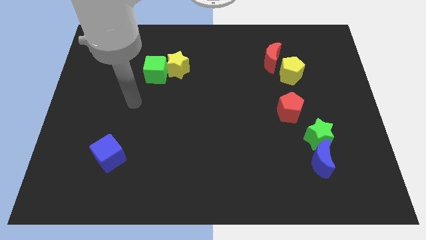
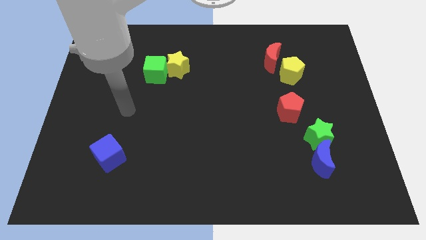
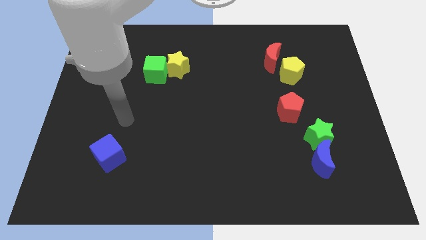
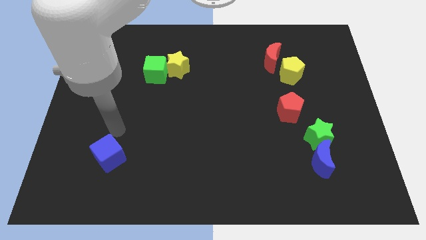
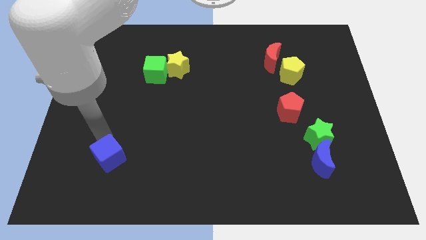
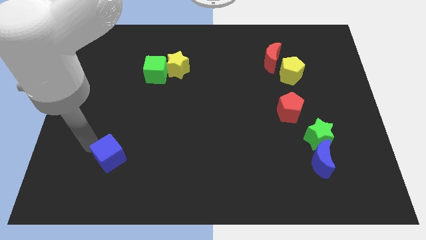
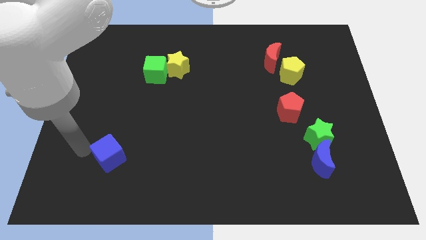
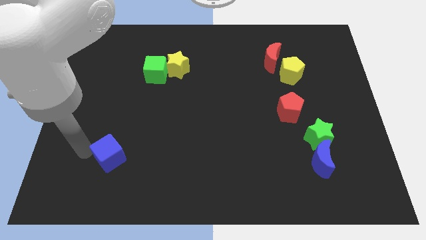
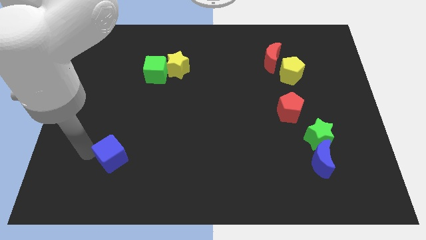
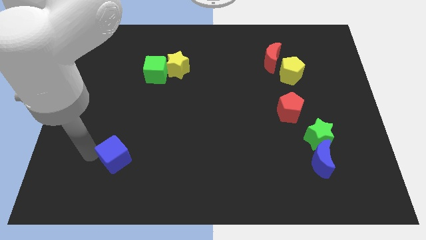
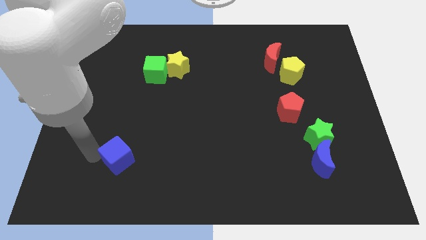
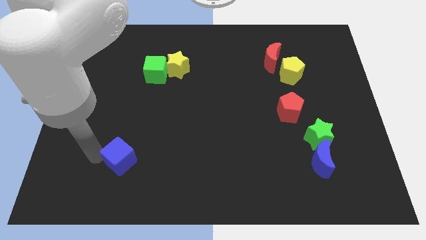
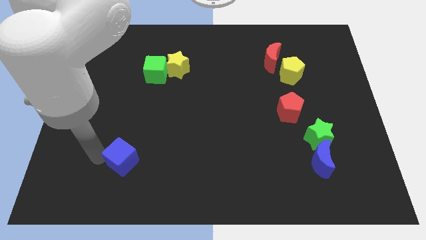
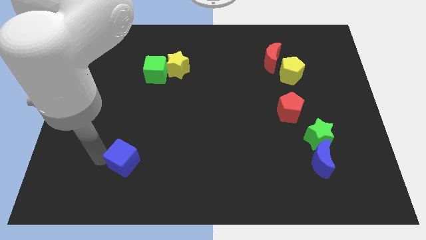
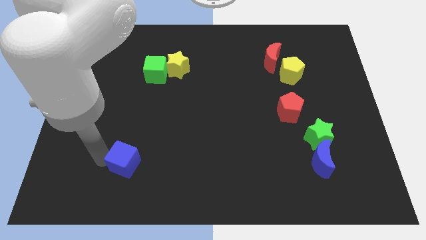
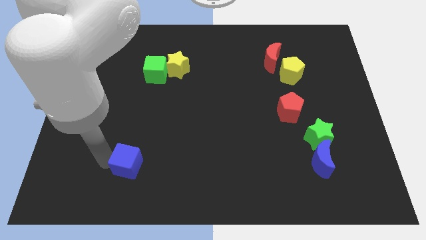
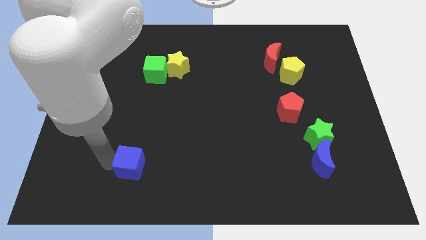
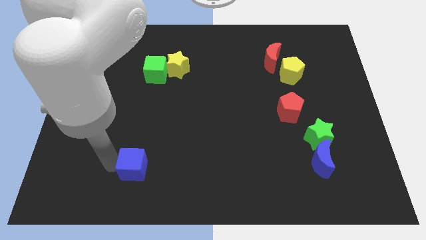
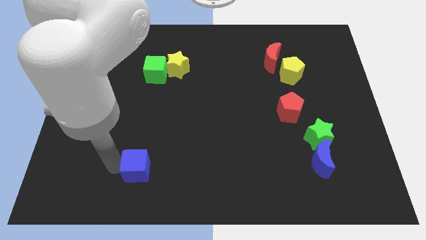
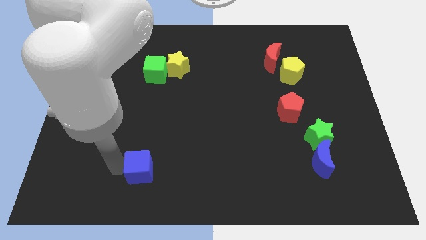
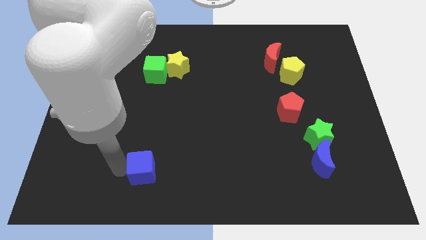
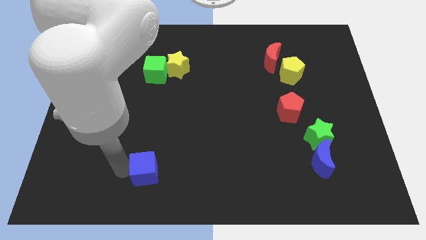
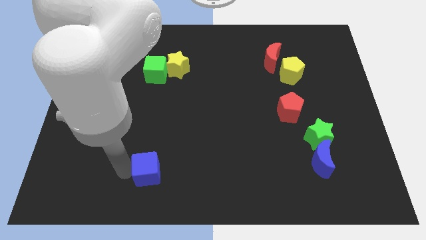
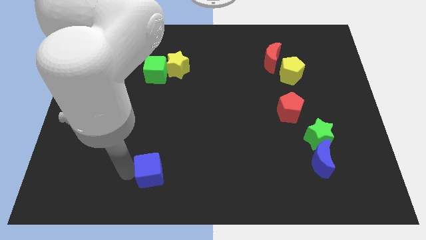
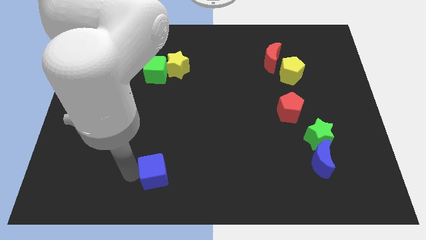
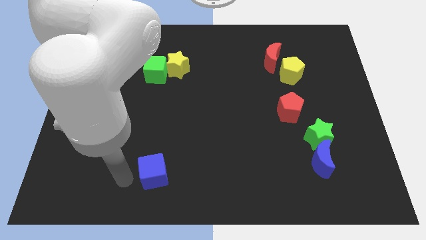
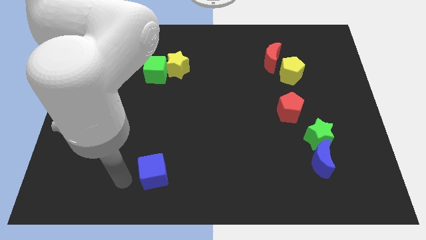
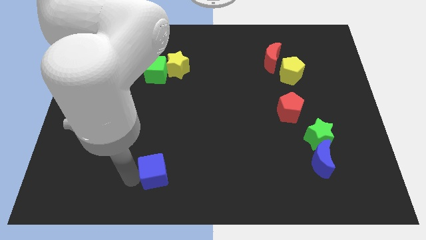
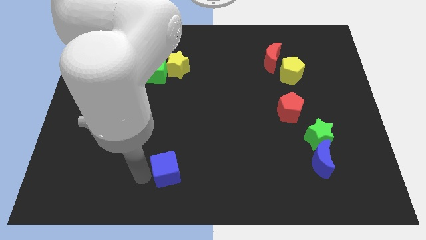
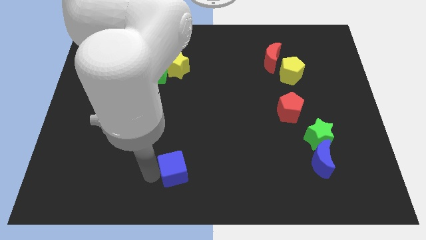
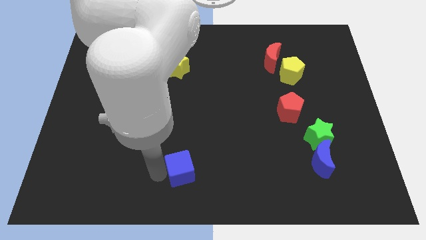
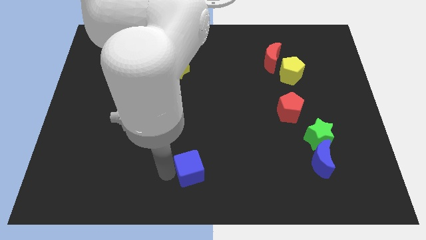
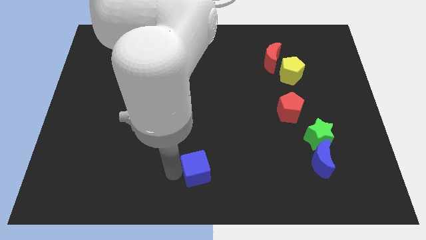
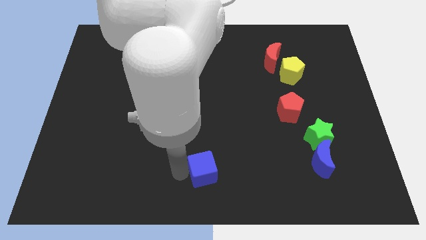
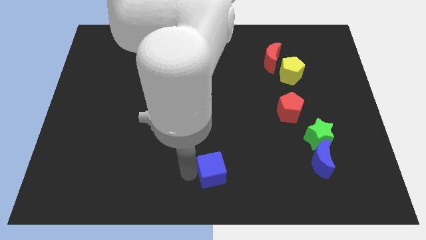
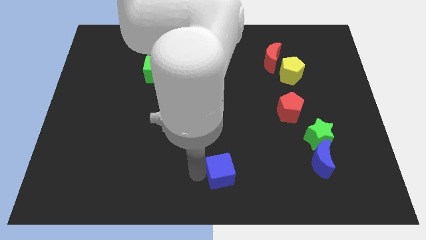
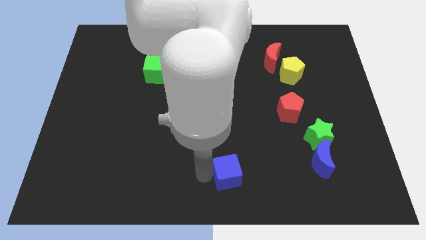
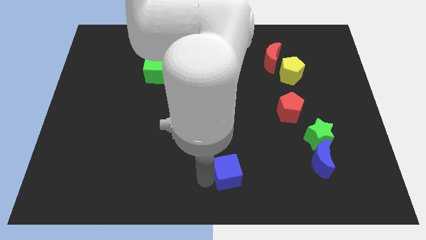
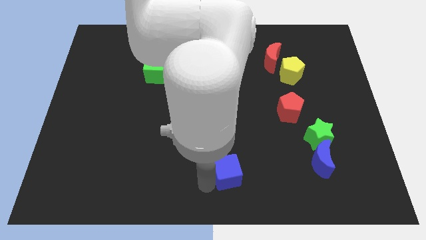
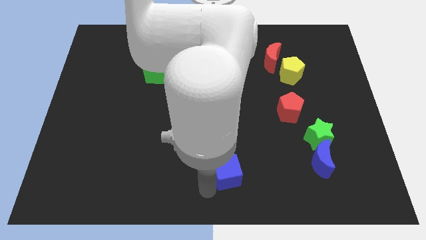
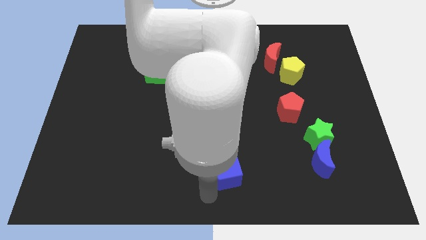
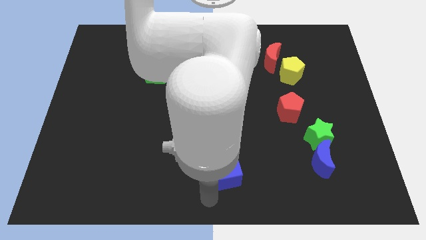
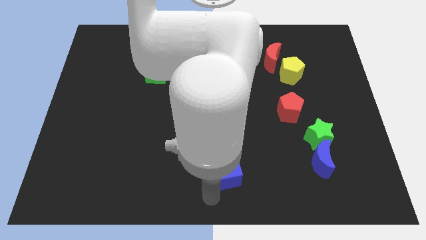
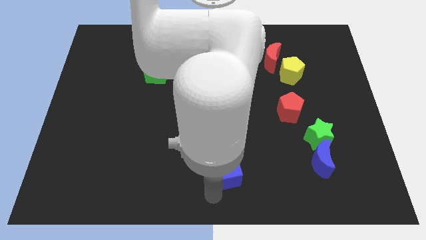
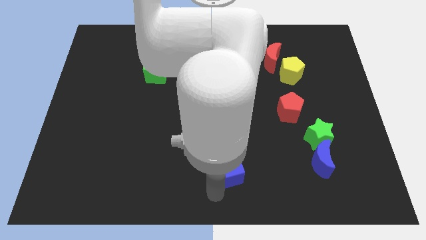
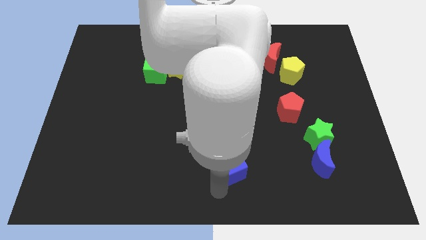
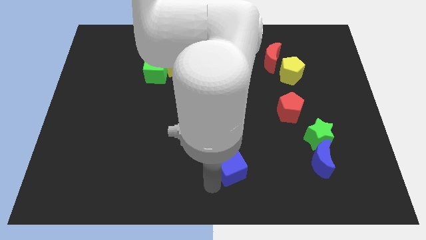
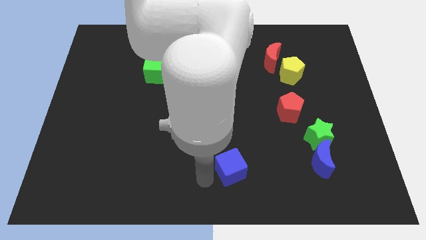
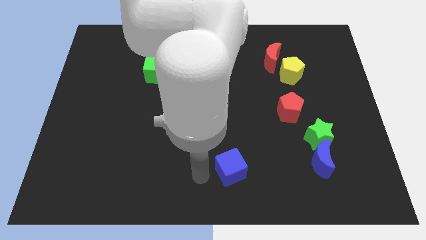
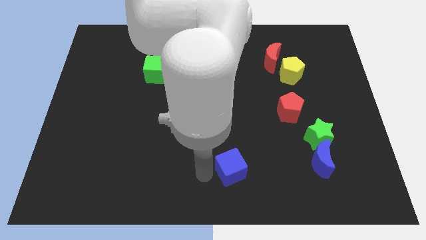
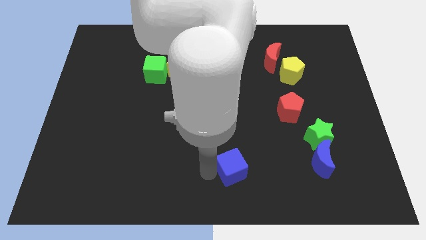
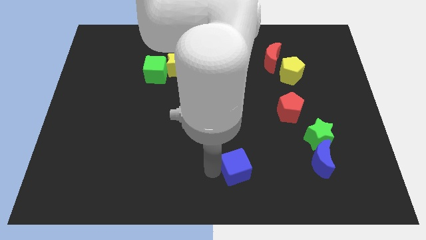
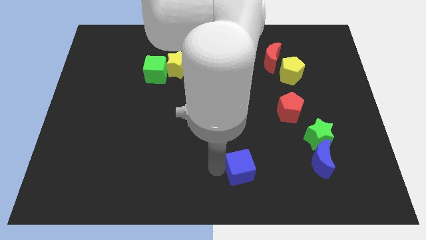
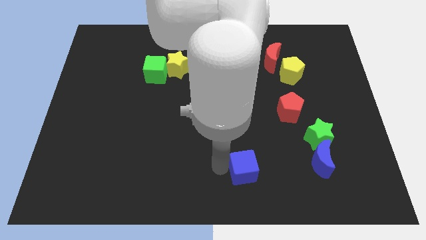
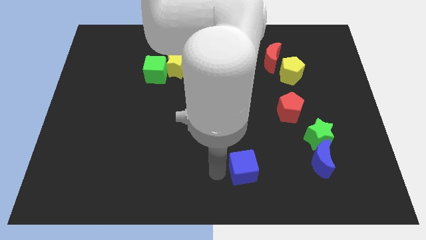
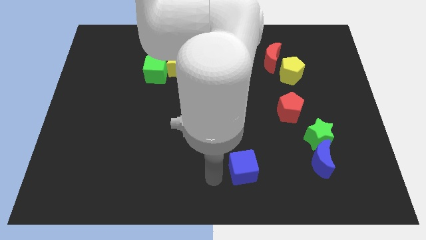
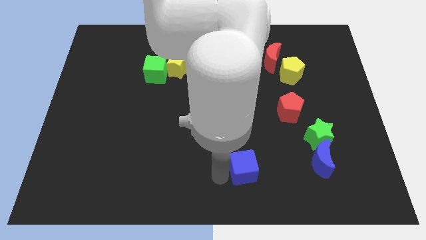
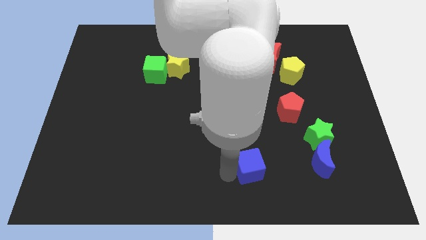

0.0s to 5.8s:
push the blue cube to the left side of the blue moon

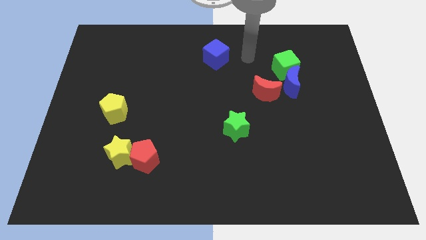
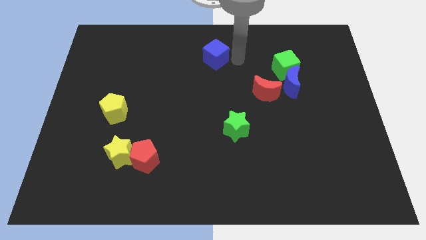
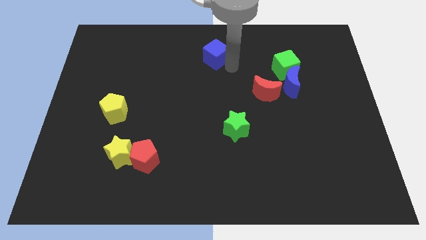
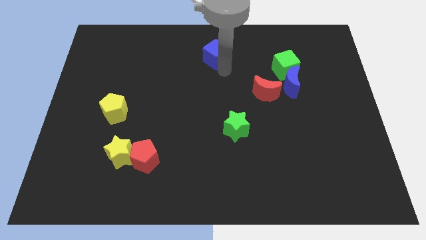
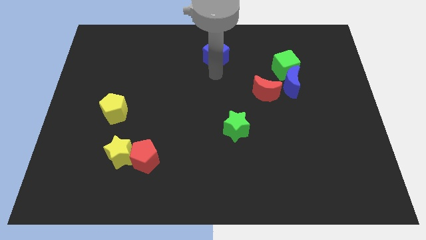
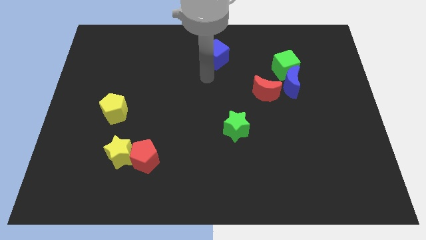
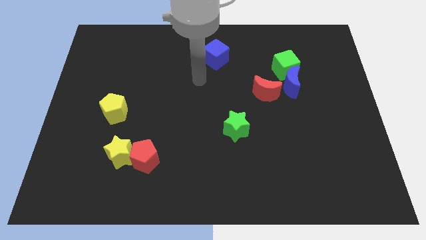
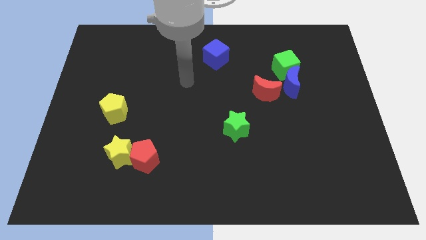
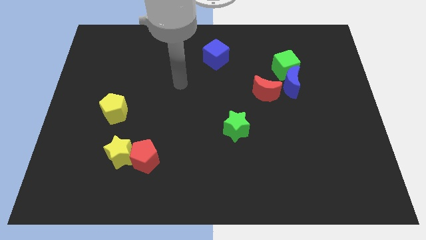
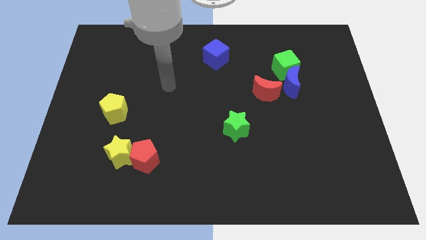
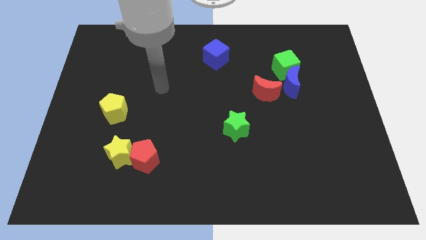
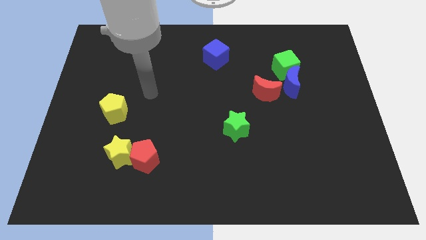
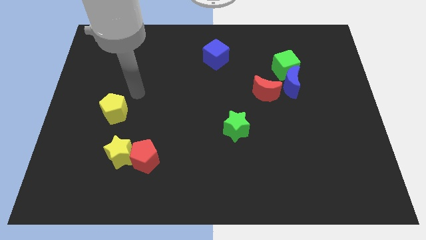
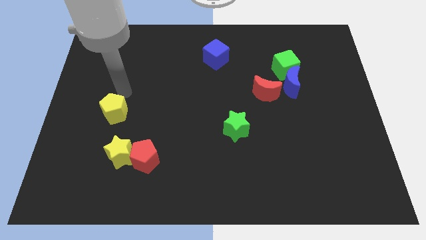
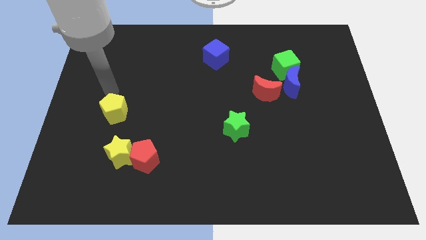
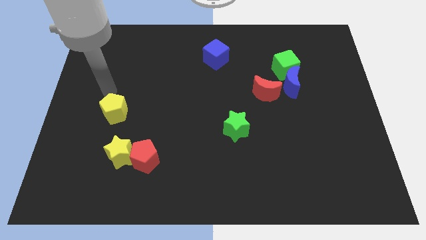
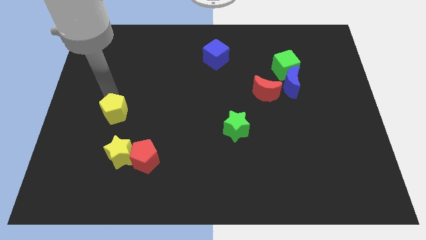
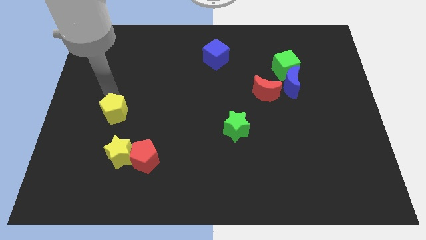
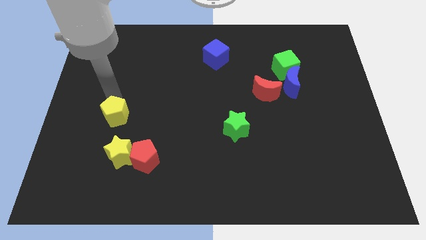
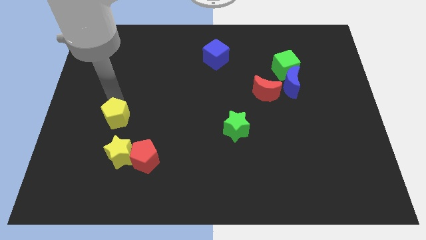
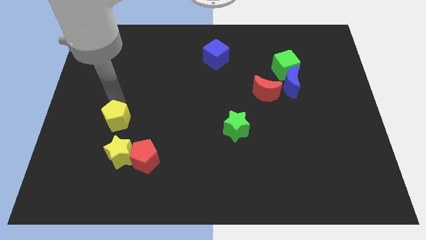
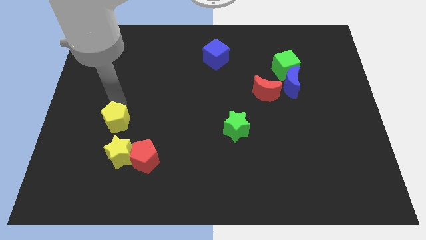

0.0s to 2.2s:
move the yellow pentagon to the top left of the red pentagon
